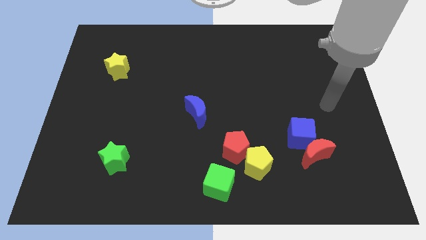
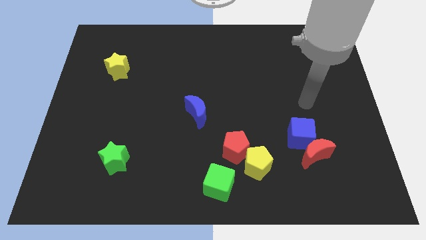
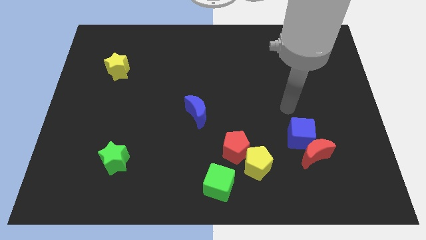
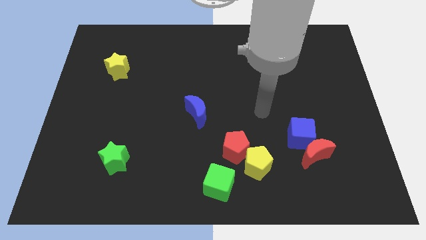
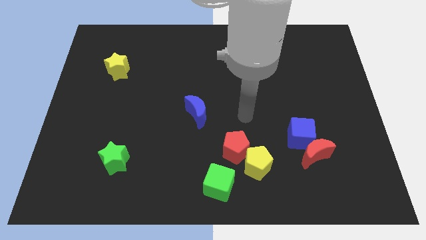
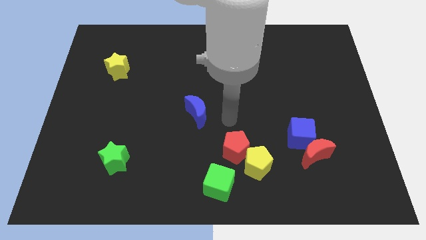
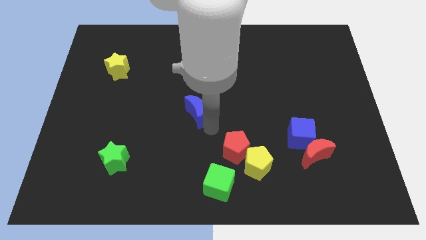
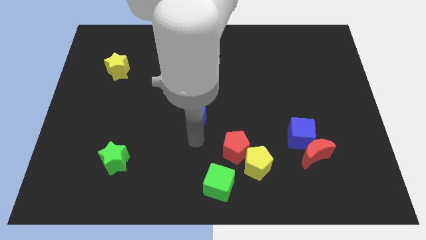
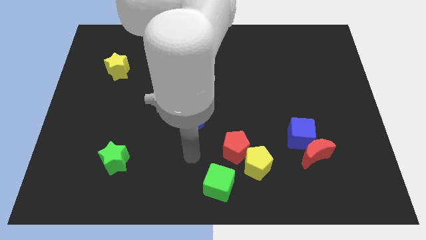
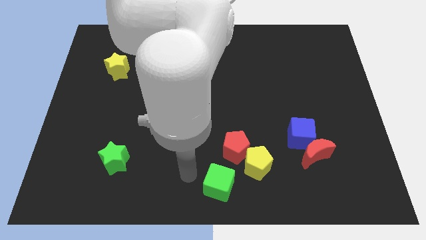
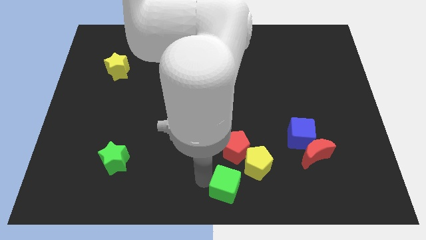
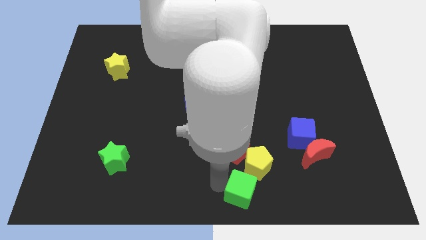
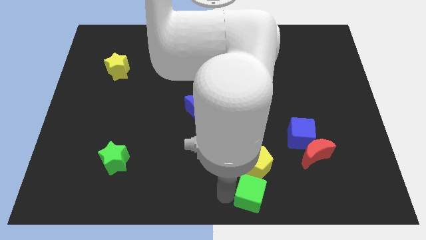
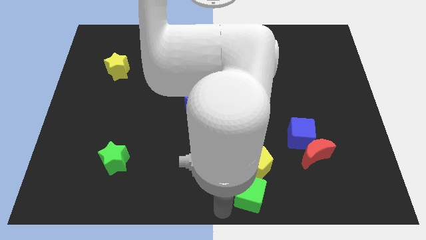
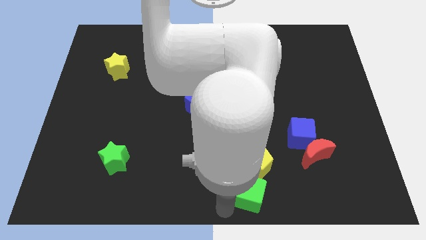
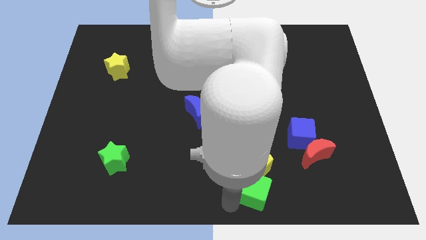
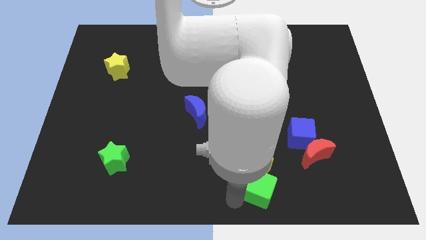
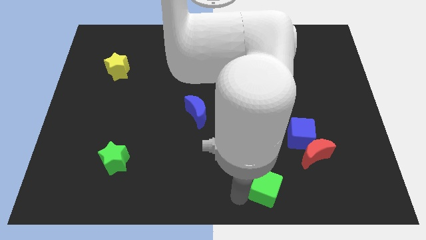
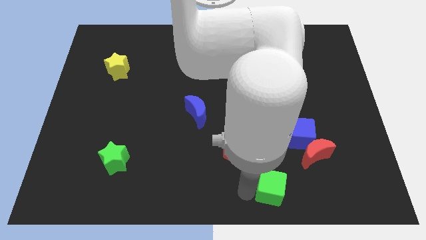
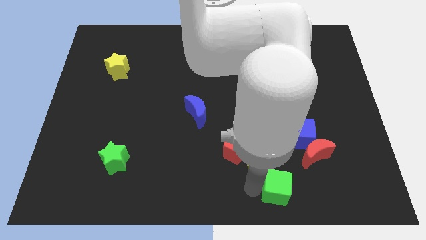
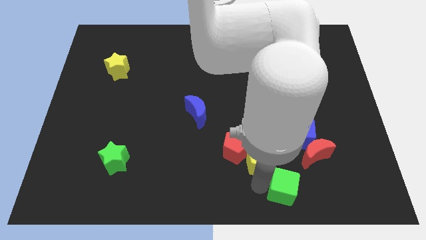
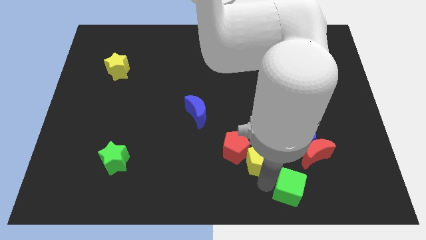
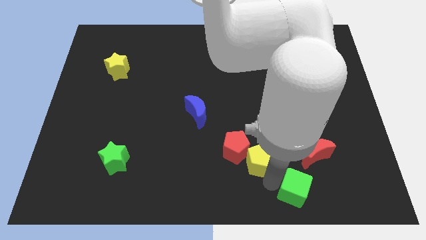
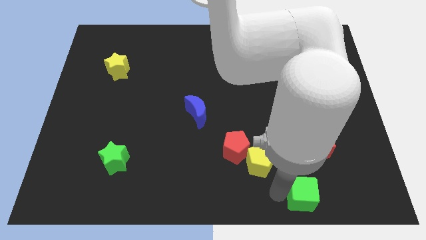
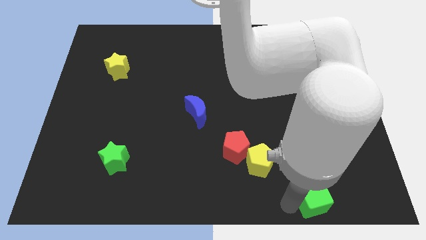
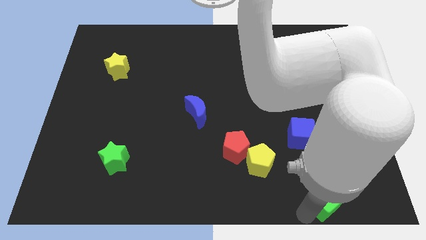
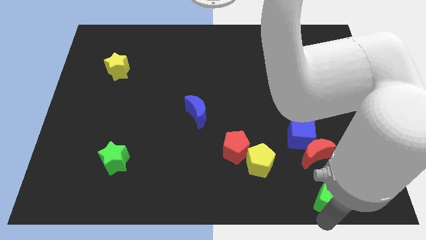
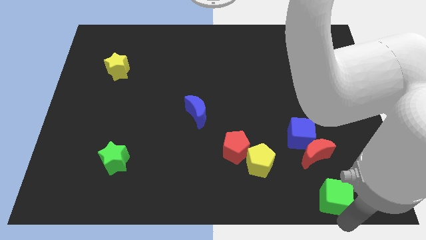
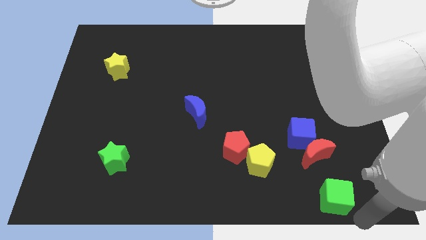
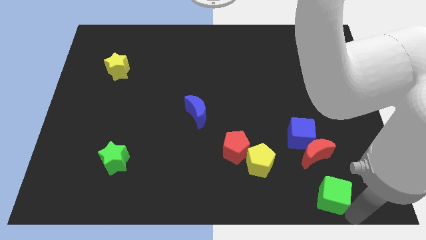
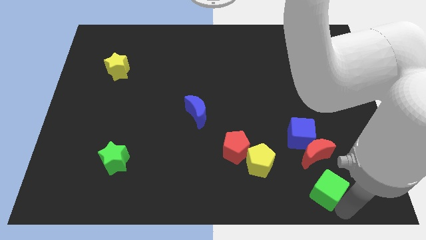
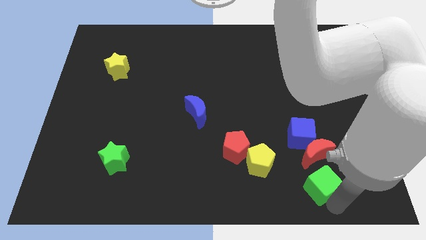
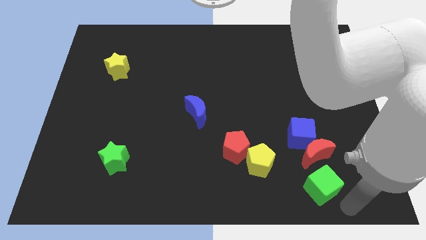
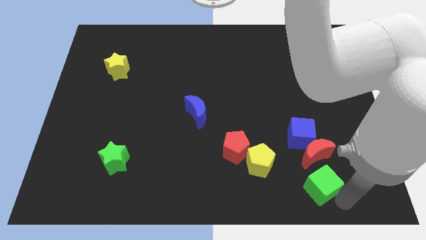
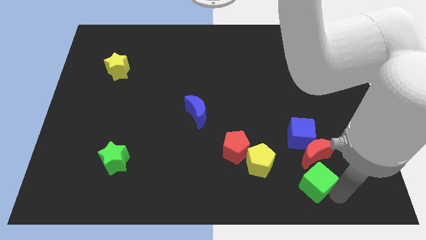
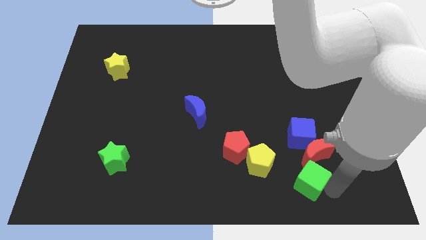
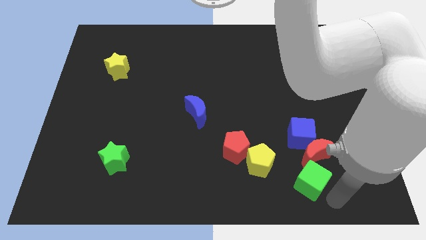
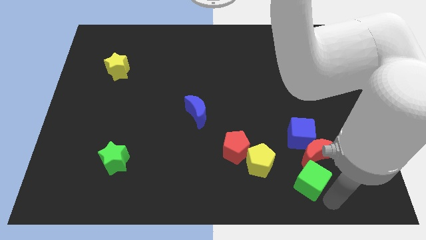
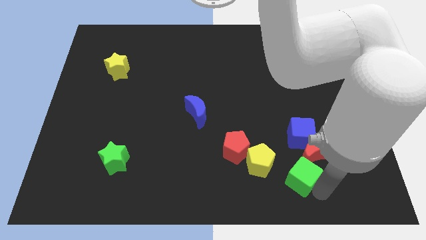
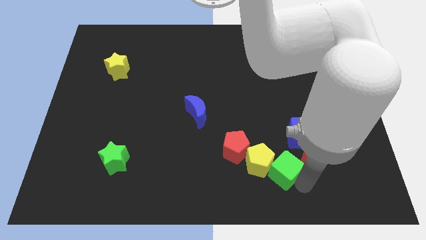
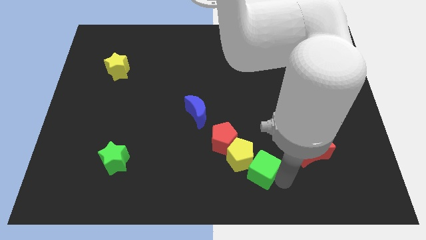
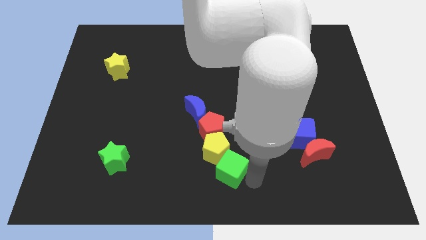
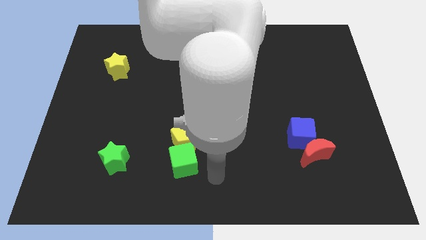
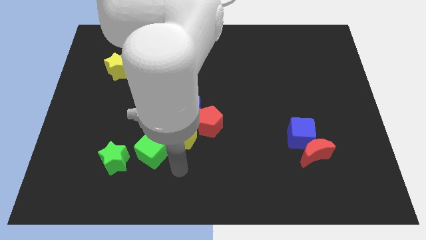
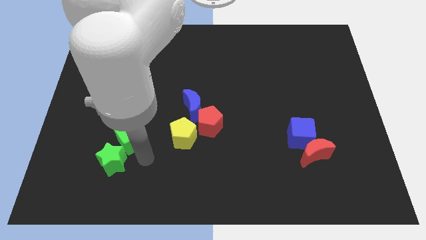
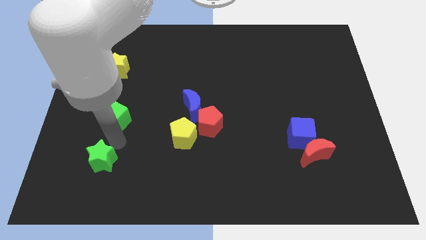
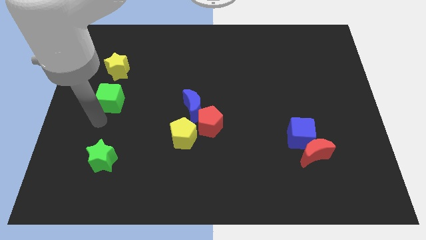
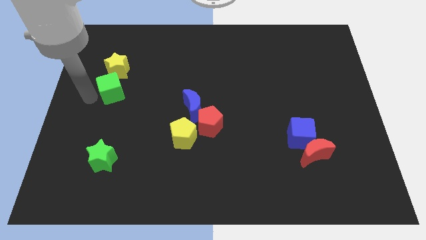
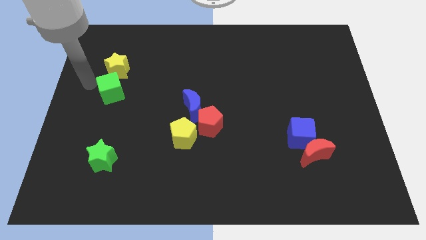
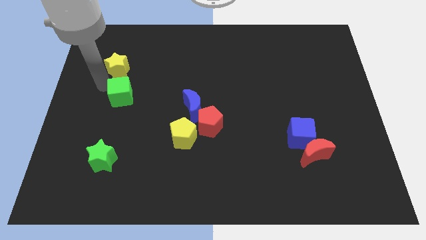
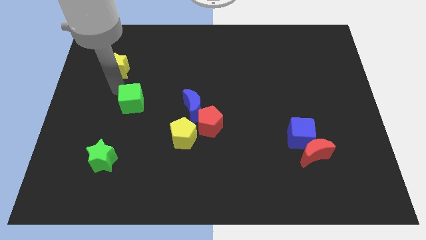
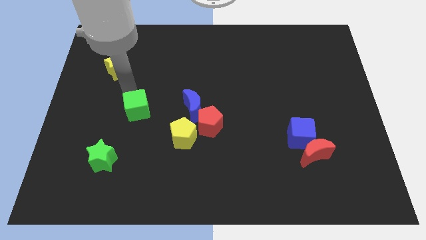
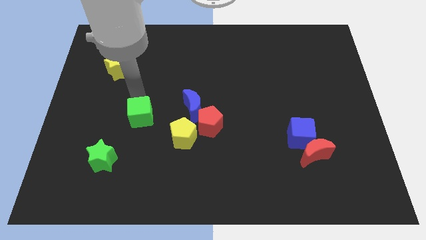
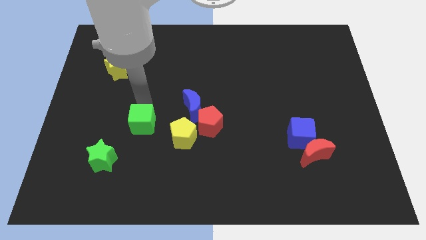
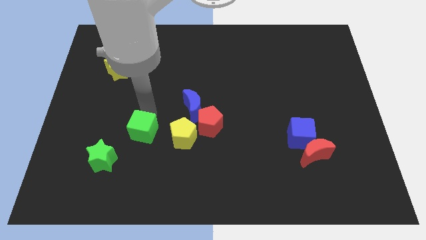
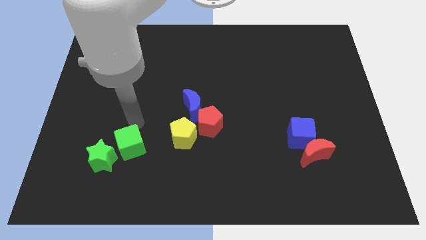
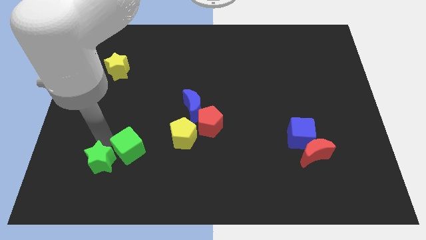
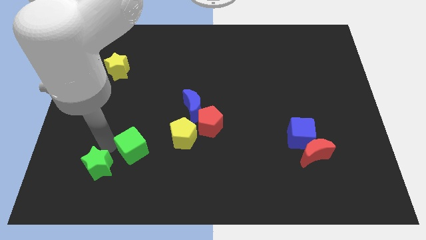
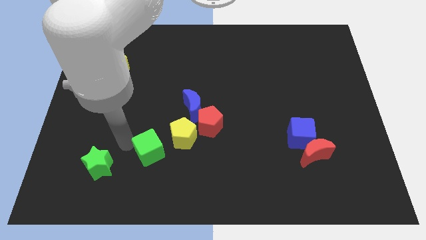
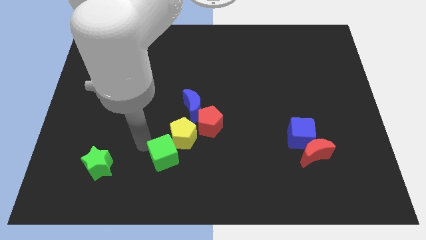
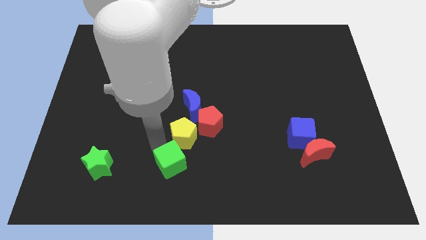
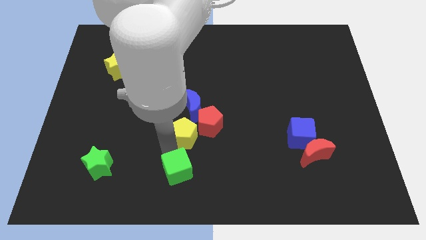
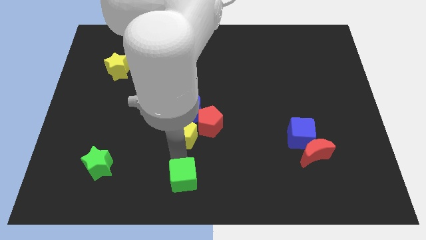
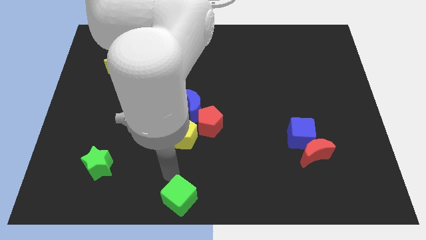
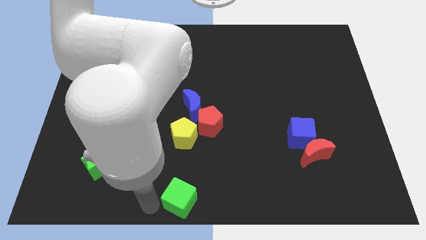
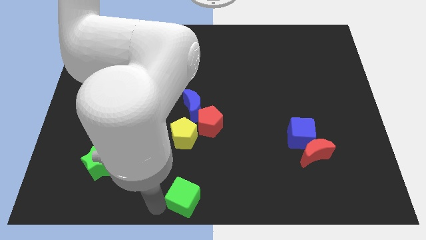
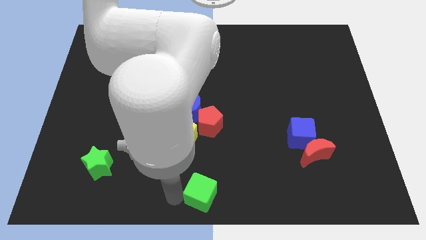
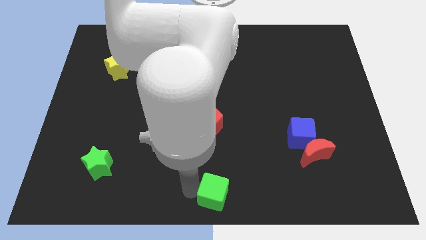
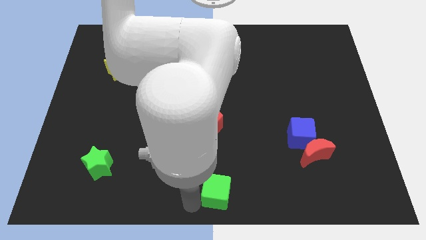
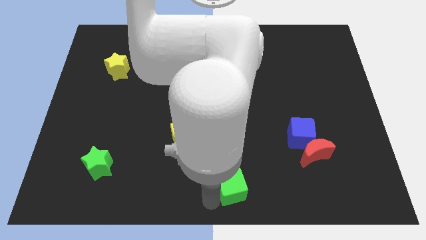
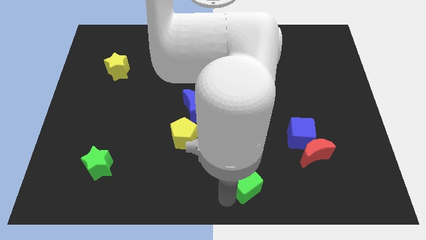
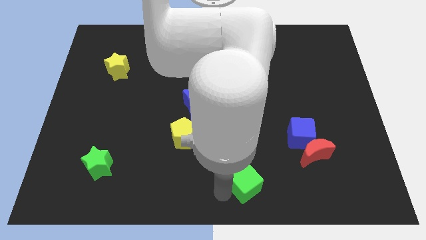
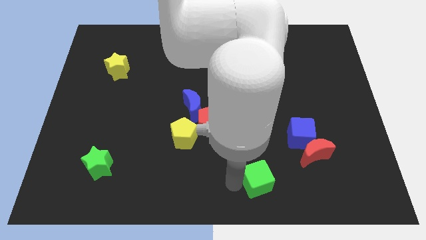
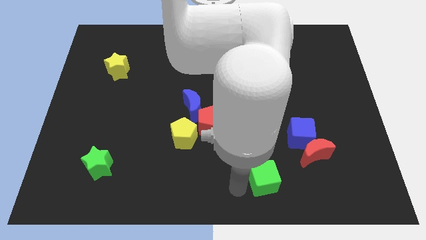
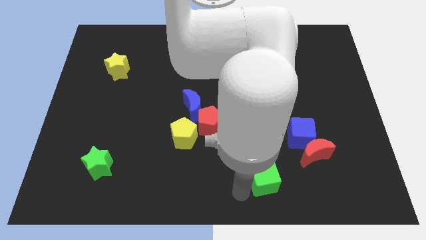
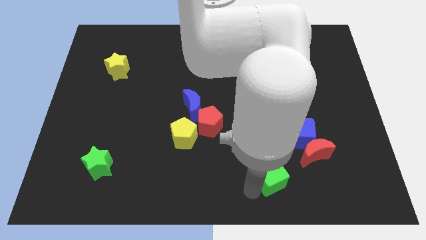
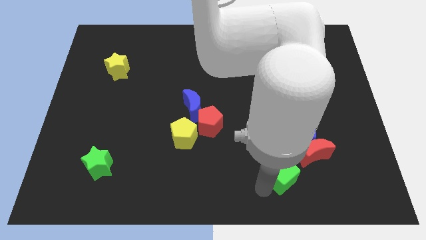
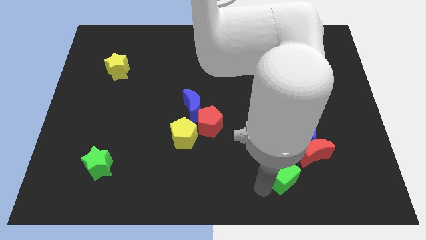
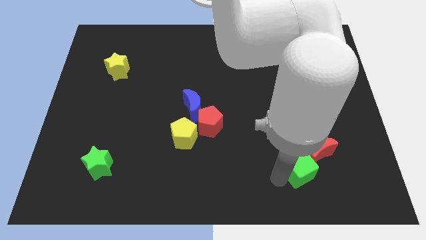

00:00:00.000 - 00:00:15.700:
push the green cube to the red moon
